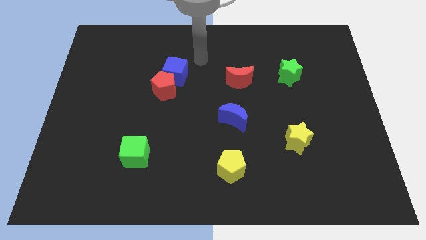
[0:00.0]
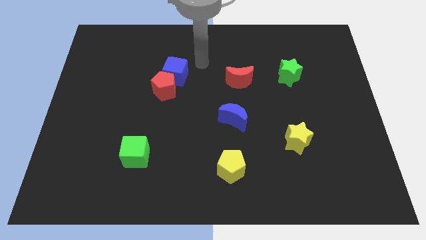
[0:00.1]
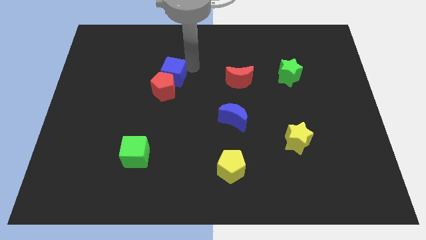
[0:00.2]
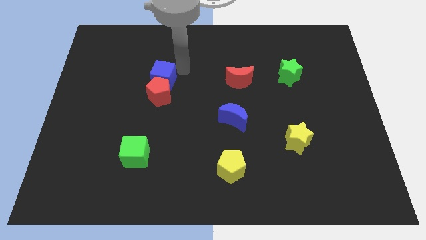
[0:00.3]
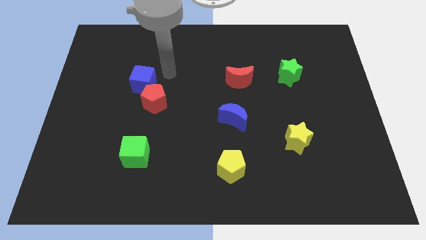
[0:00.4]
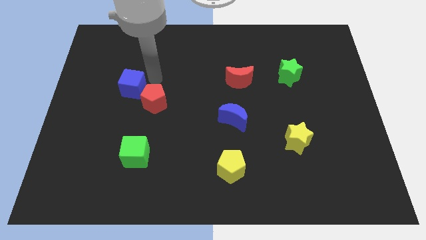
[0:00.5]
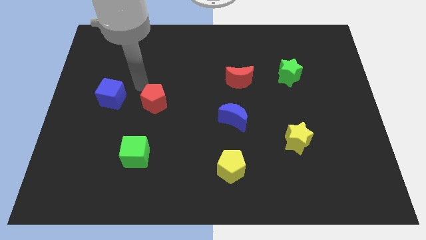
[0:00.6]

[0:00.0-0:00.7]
move the red pentagon away from the blue cube

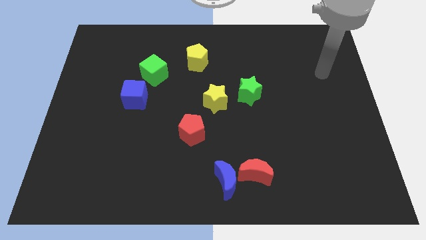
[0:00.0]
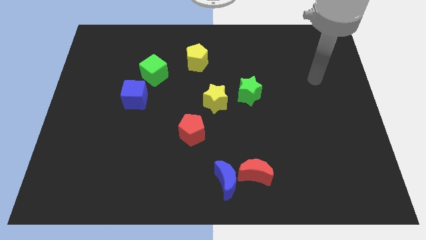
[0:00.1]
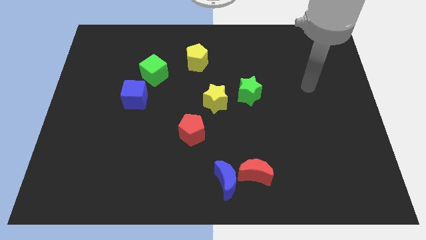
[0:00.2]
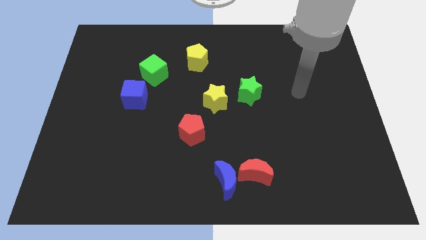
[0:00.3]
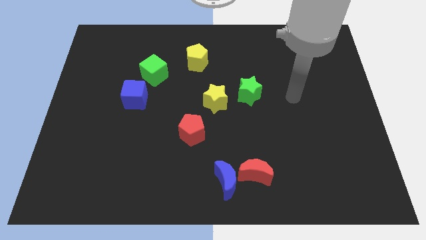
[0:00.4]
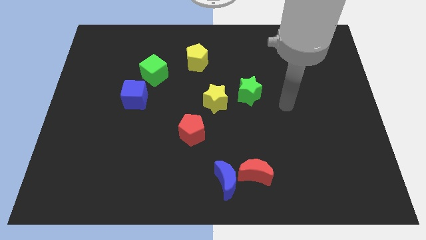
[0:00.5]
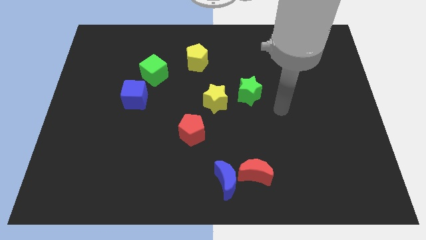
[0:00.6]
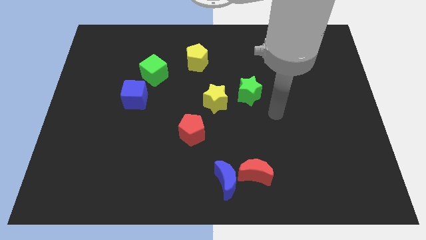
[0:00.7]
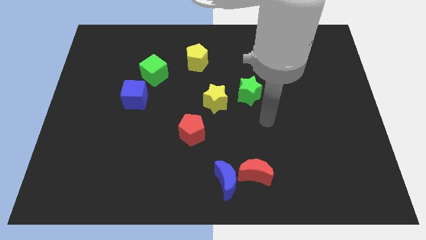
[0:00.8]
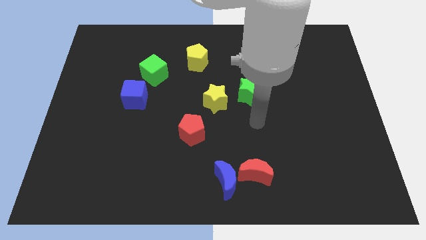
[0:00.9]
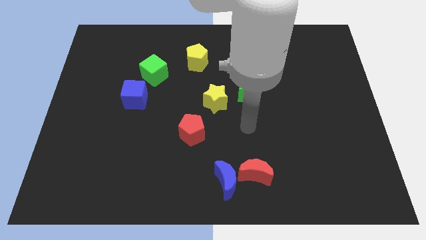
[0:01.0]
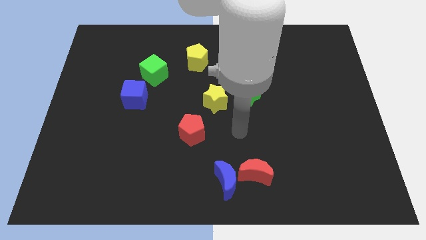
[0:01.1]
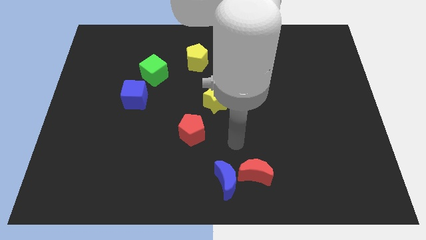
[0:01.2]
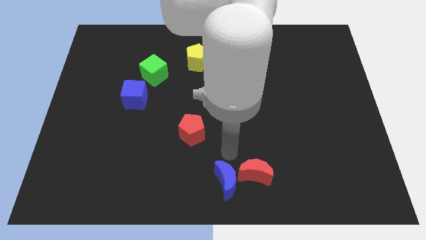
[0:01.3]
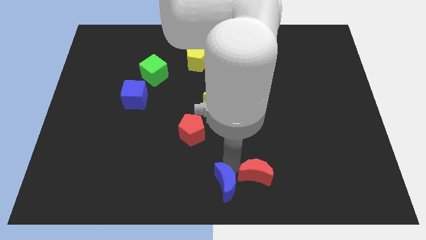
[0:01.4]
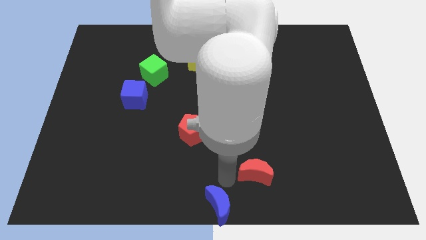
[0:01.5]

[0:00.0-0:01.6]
move the red moon away from the blue moon

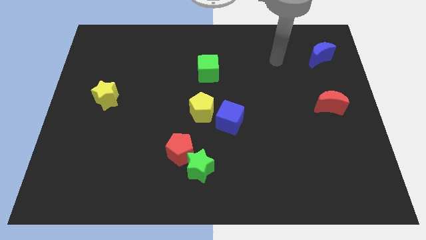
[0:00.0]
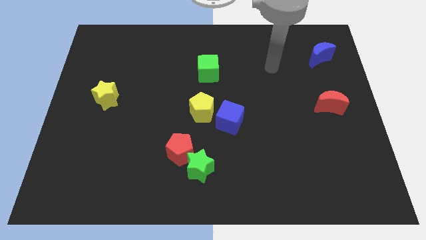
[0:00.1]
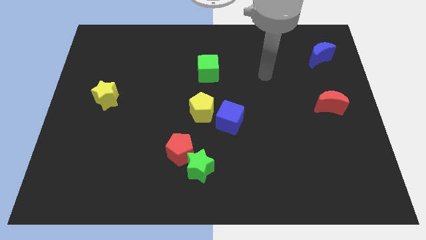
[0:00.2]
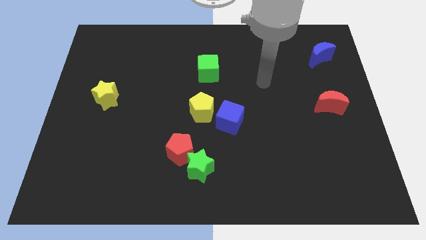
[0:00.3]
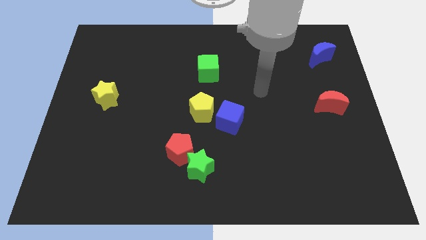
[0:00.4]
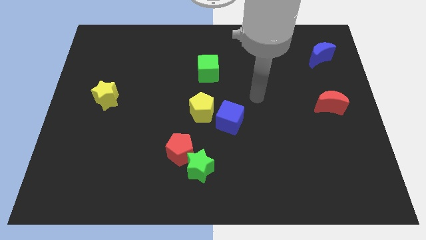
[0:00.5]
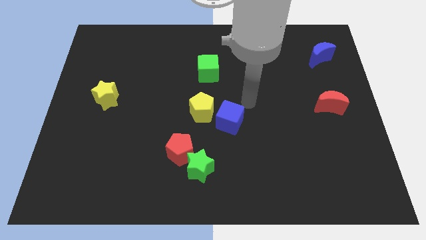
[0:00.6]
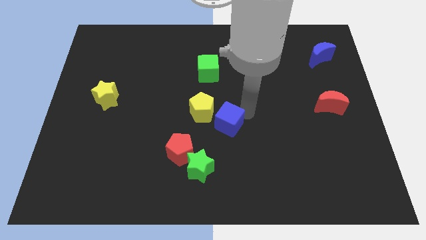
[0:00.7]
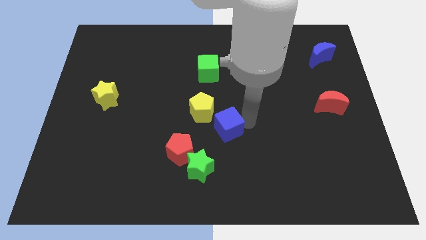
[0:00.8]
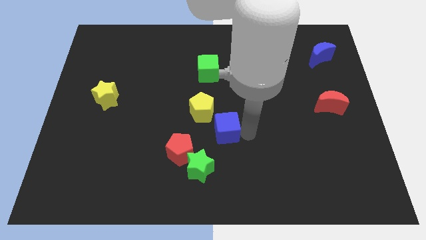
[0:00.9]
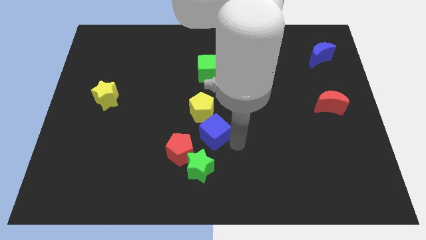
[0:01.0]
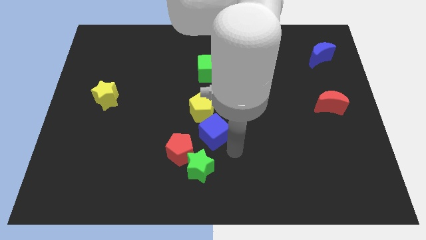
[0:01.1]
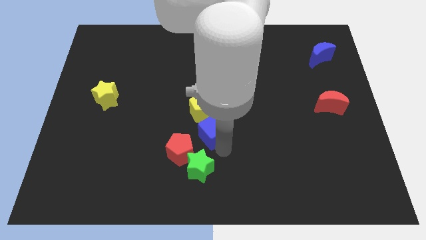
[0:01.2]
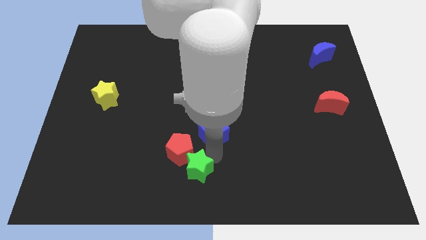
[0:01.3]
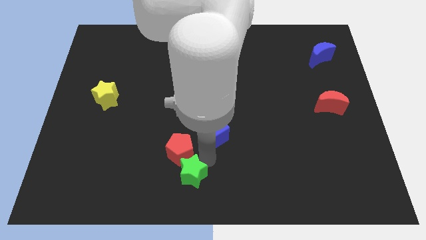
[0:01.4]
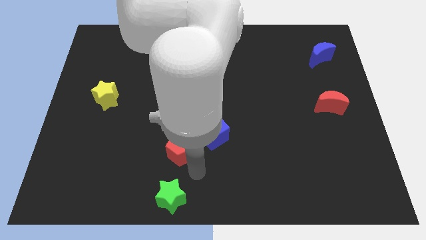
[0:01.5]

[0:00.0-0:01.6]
move the red pentagon away from the green star

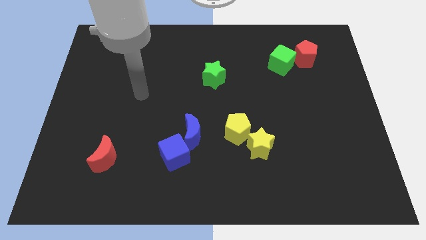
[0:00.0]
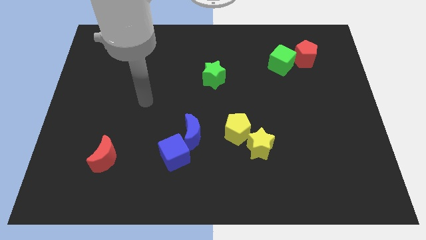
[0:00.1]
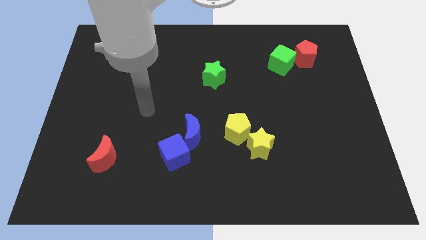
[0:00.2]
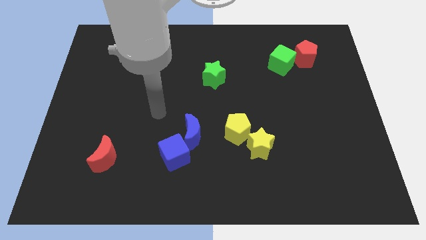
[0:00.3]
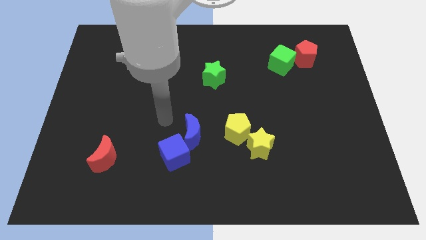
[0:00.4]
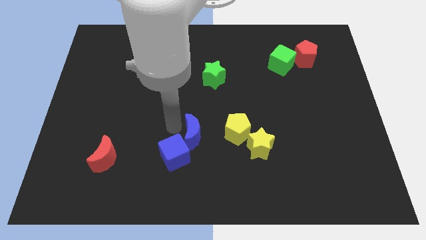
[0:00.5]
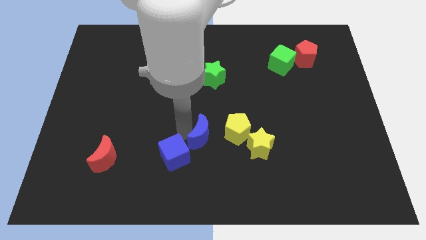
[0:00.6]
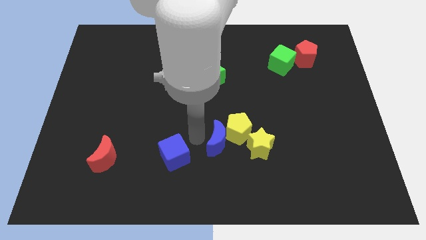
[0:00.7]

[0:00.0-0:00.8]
pull the blue cube apart from the blue moon

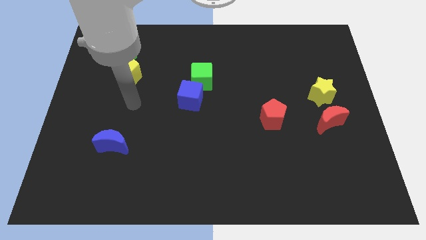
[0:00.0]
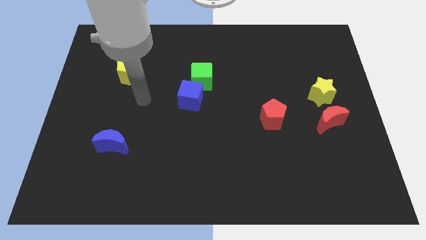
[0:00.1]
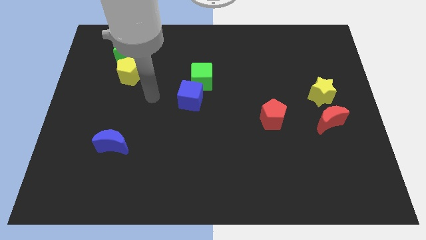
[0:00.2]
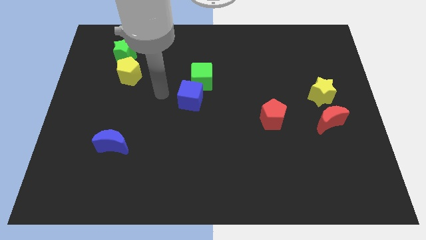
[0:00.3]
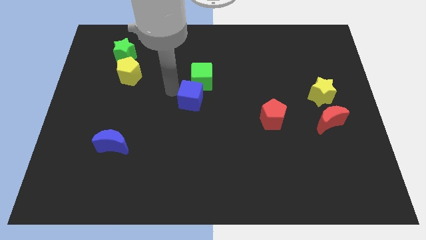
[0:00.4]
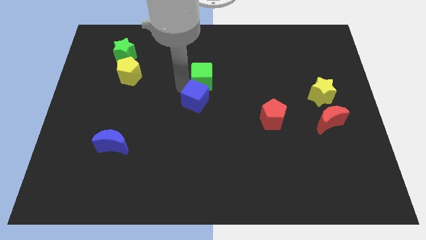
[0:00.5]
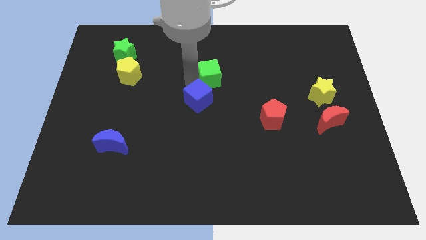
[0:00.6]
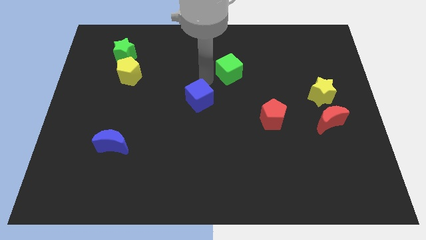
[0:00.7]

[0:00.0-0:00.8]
separate the blue cube from the green cube

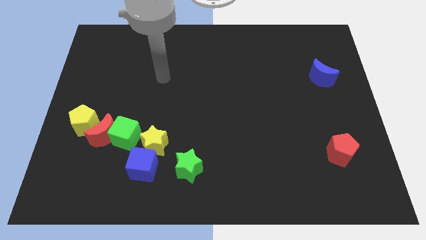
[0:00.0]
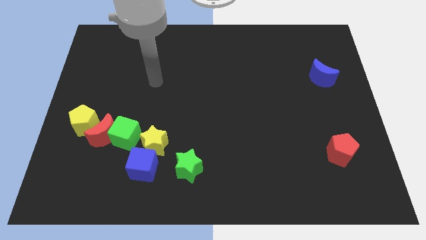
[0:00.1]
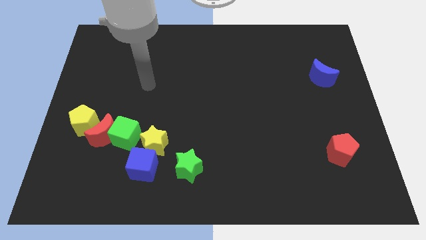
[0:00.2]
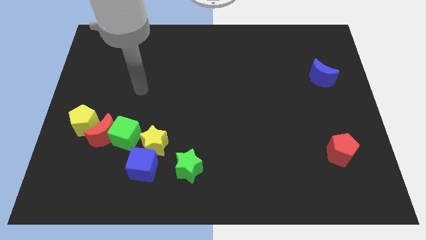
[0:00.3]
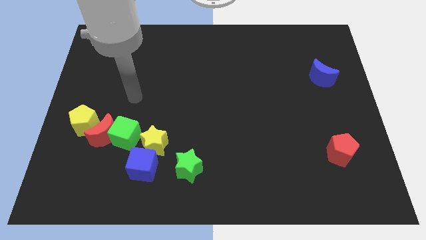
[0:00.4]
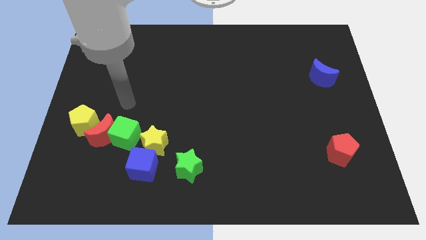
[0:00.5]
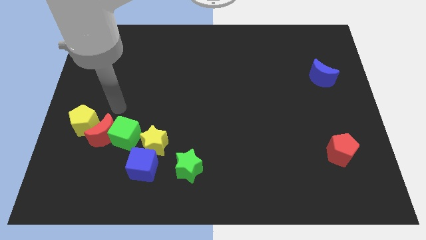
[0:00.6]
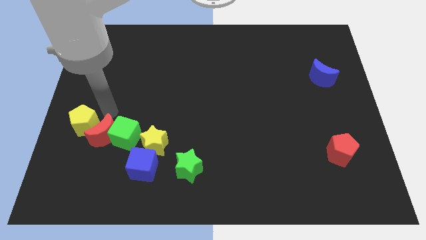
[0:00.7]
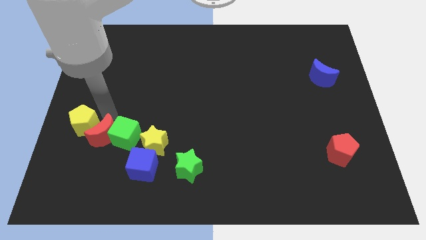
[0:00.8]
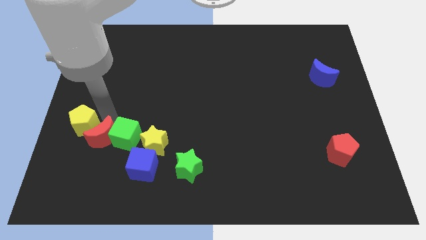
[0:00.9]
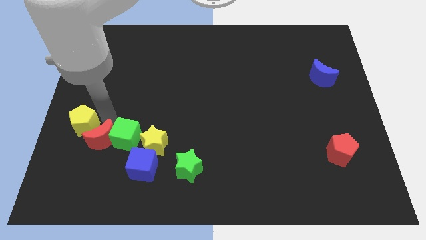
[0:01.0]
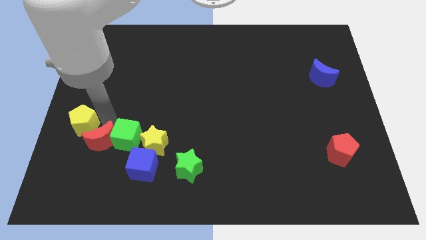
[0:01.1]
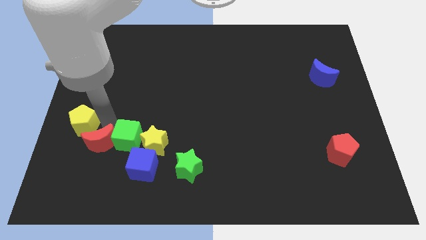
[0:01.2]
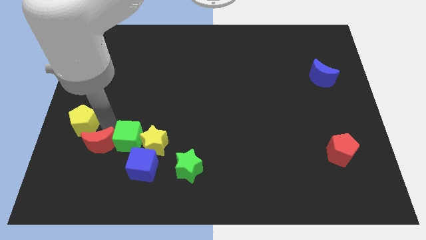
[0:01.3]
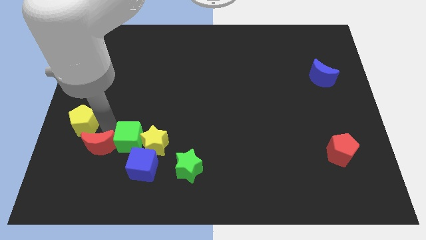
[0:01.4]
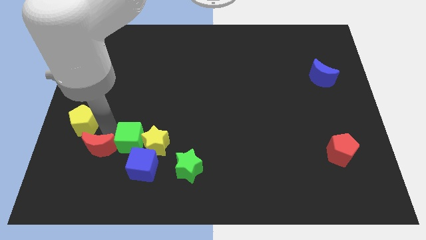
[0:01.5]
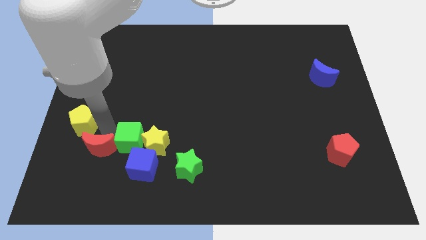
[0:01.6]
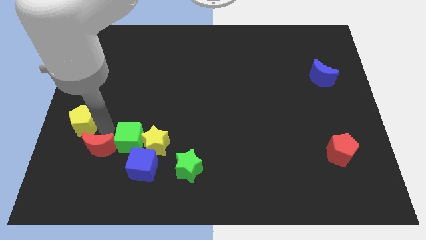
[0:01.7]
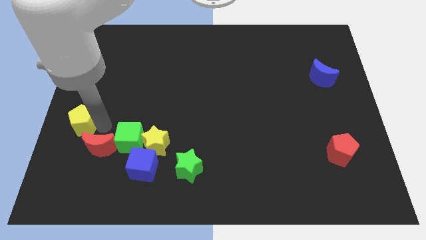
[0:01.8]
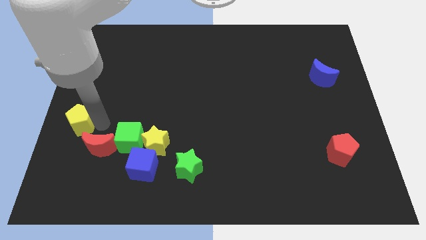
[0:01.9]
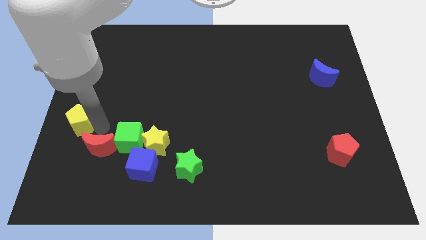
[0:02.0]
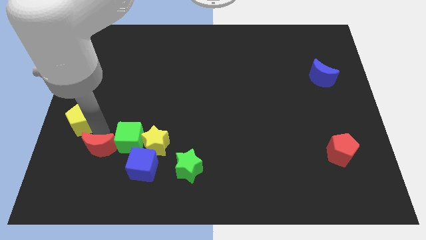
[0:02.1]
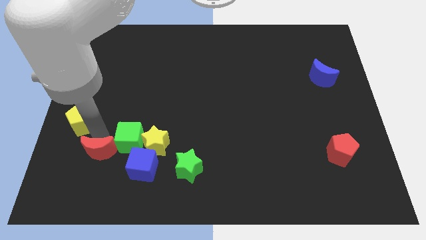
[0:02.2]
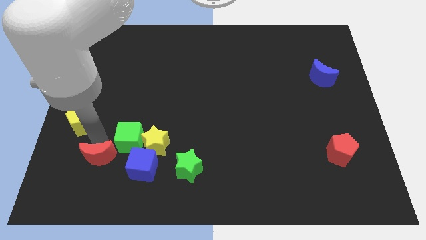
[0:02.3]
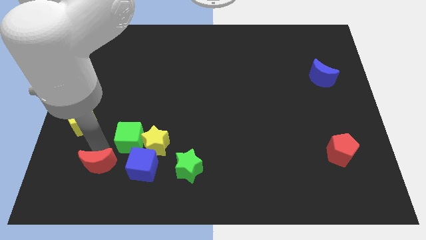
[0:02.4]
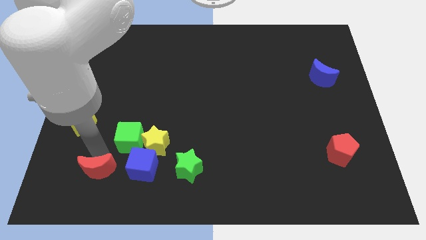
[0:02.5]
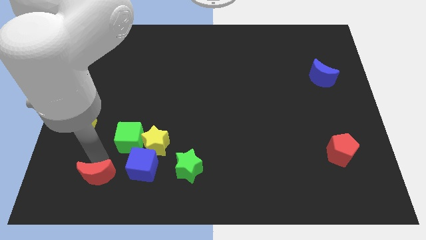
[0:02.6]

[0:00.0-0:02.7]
move the red moon away from the green cube and yellow pentagon

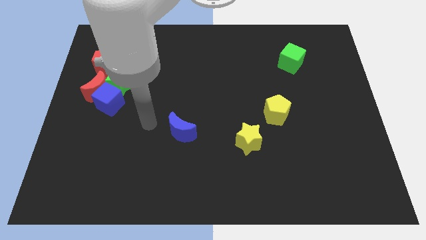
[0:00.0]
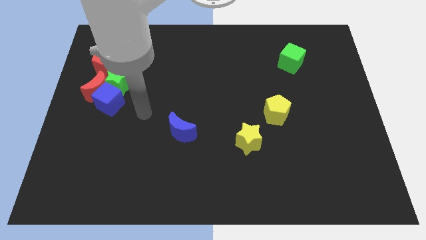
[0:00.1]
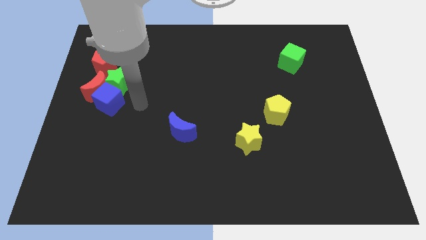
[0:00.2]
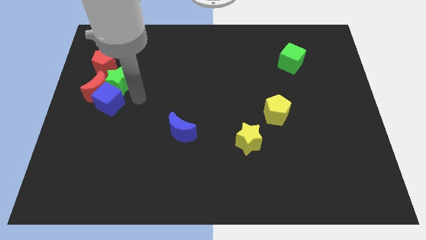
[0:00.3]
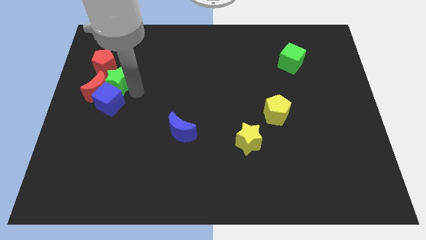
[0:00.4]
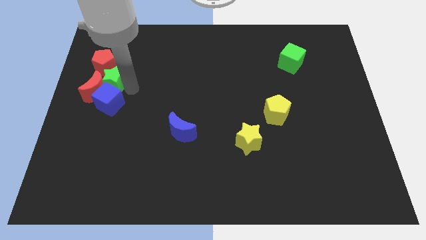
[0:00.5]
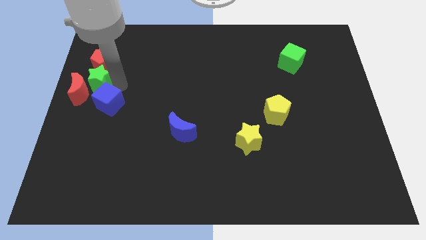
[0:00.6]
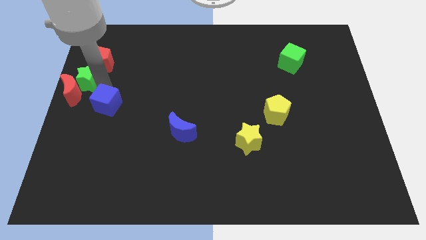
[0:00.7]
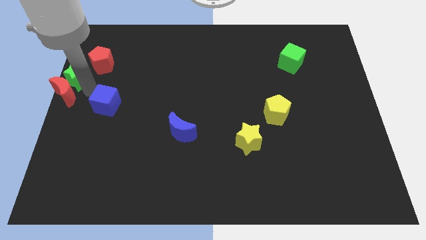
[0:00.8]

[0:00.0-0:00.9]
pull the blue cube apart from the red moon and green star

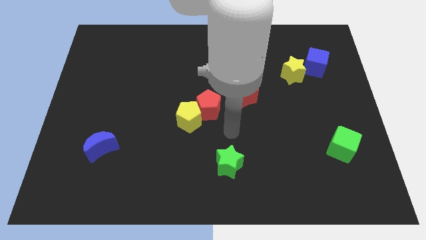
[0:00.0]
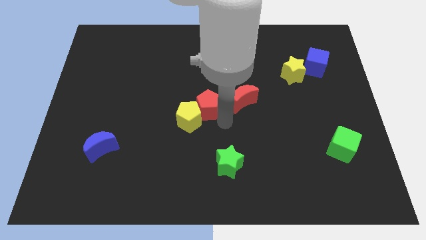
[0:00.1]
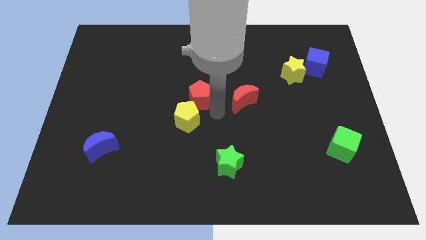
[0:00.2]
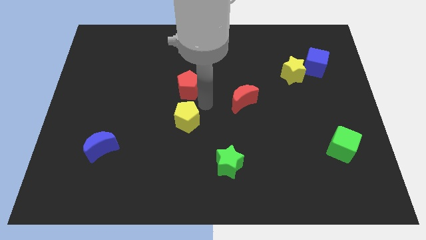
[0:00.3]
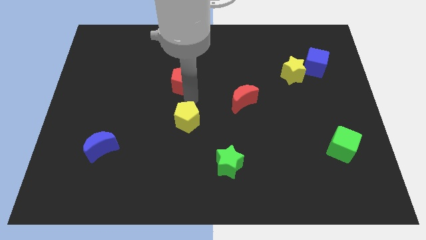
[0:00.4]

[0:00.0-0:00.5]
move the yellow pentagon away from the red pentagon
